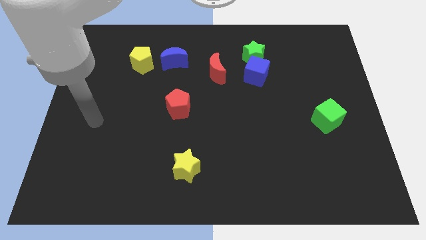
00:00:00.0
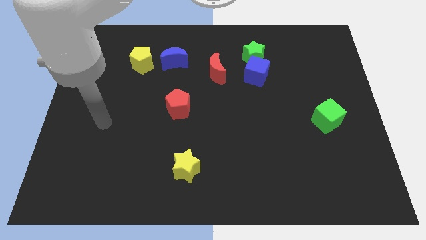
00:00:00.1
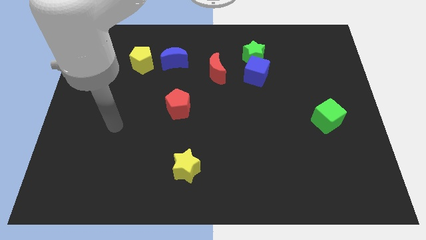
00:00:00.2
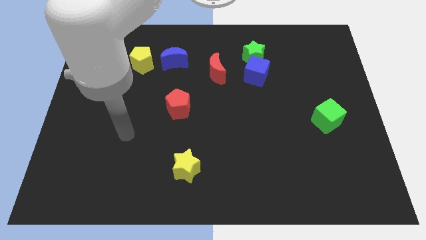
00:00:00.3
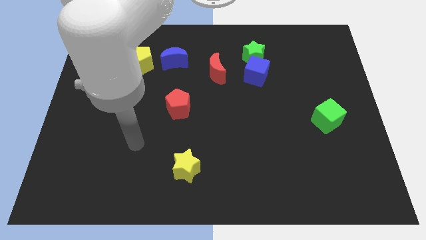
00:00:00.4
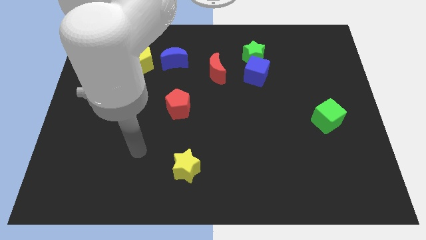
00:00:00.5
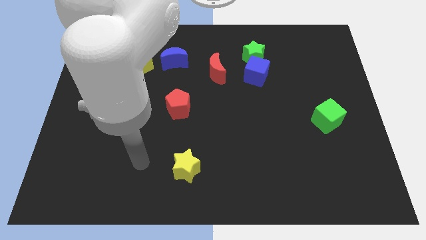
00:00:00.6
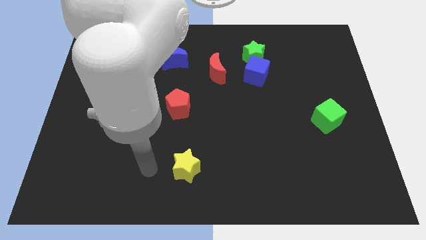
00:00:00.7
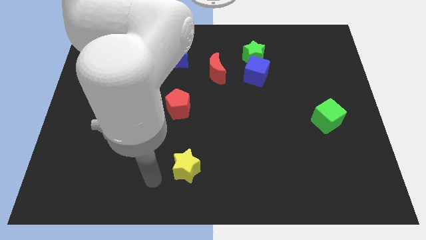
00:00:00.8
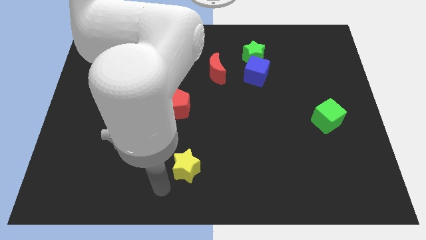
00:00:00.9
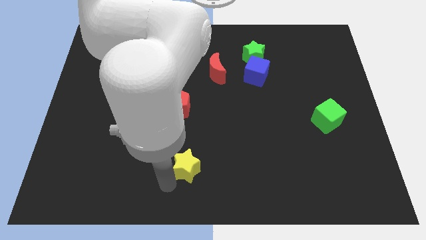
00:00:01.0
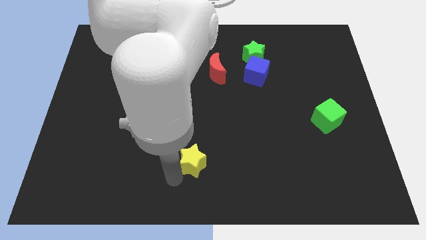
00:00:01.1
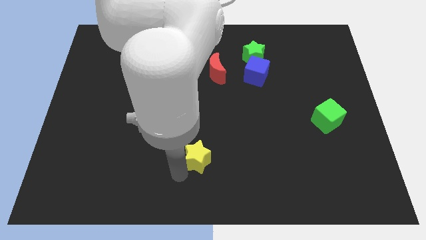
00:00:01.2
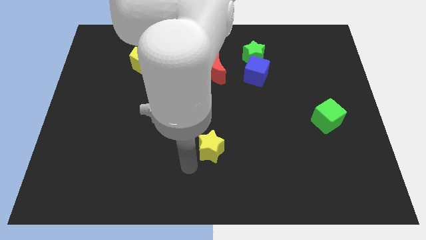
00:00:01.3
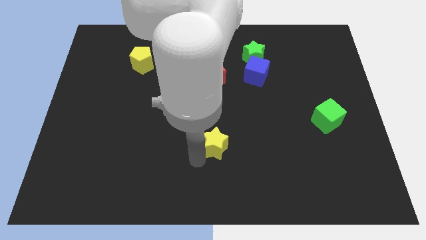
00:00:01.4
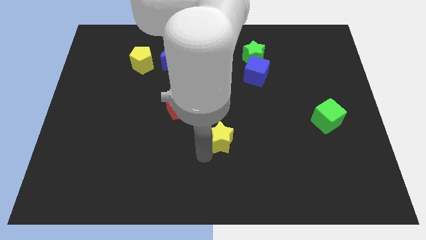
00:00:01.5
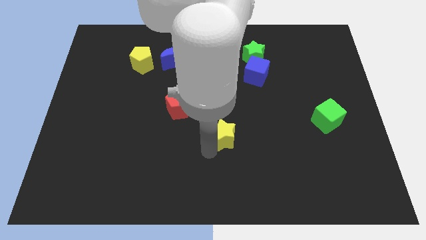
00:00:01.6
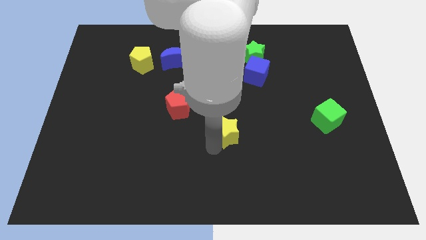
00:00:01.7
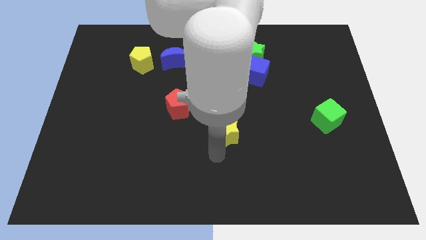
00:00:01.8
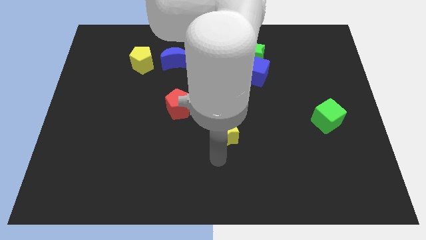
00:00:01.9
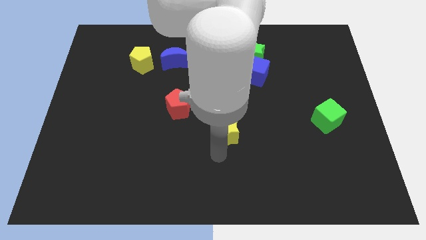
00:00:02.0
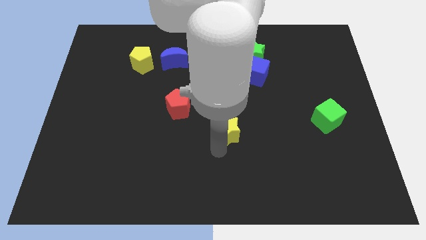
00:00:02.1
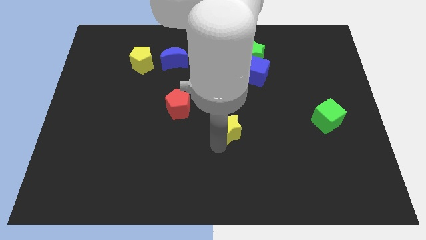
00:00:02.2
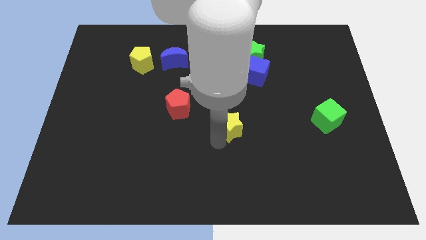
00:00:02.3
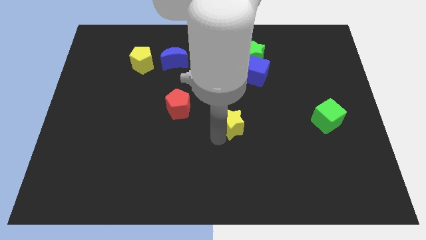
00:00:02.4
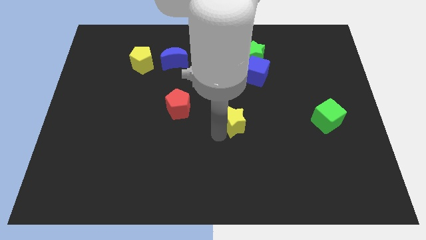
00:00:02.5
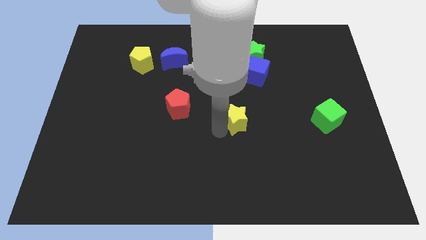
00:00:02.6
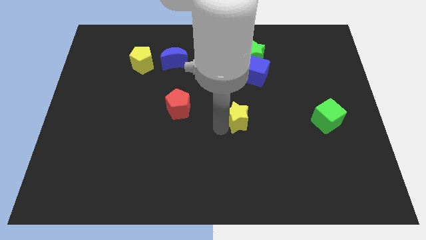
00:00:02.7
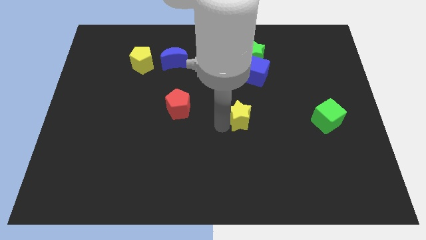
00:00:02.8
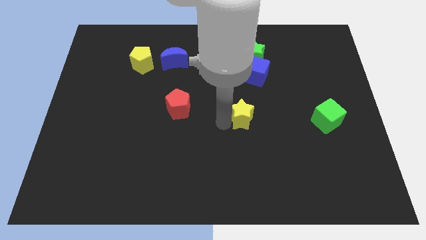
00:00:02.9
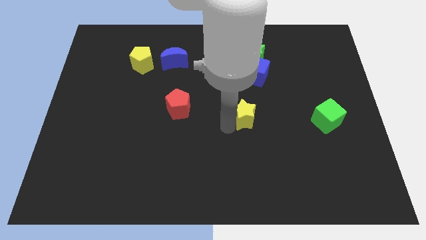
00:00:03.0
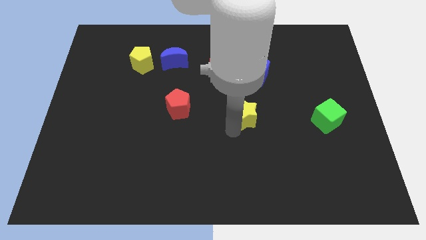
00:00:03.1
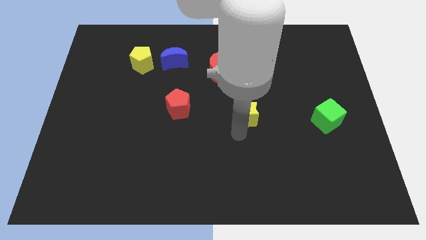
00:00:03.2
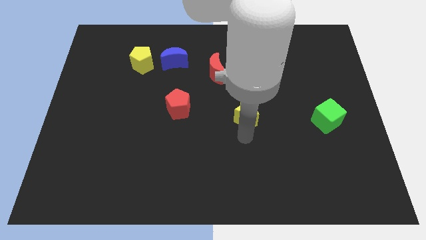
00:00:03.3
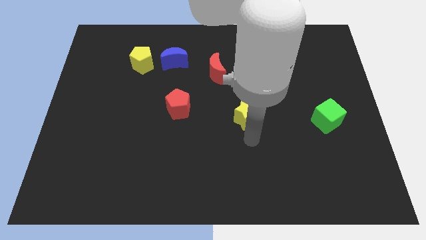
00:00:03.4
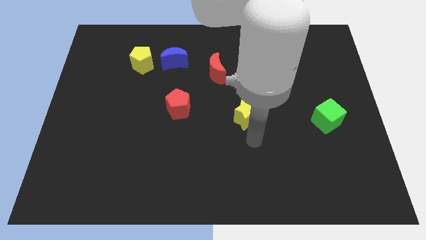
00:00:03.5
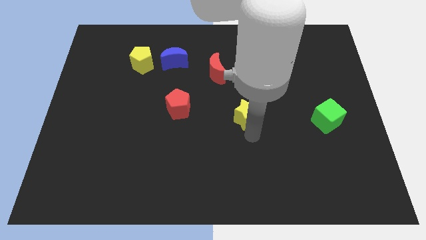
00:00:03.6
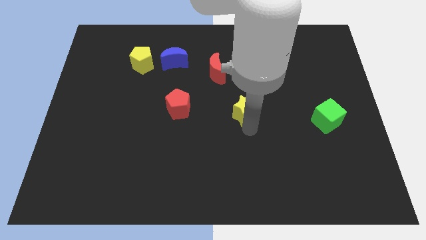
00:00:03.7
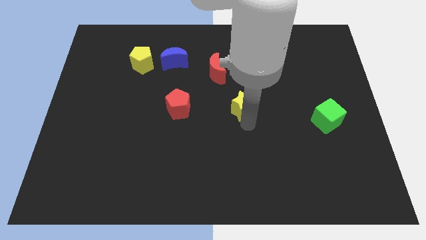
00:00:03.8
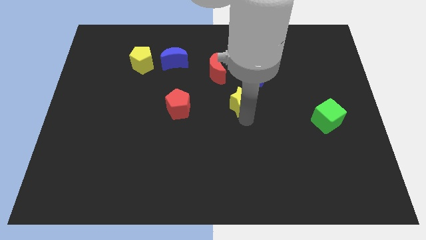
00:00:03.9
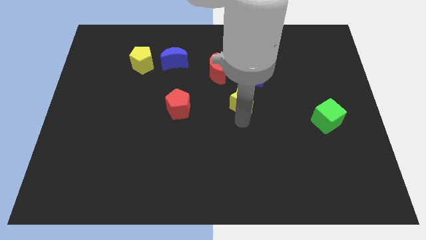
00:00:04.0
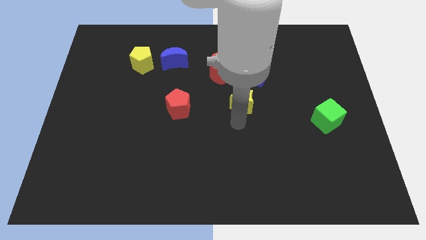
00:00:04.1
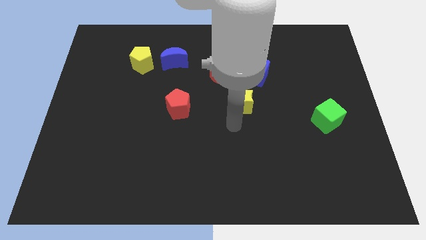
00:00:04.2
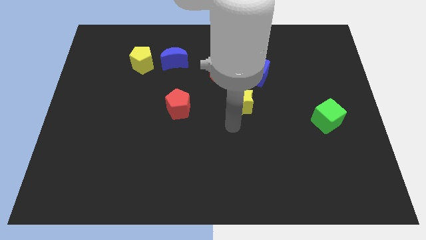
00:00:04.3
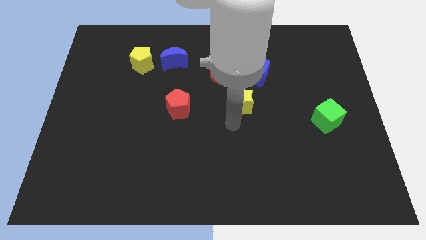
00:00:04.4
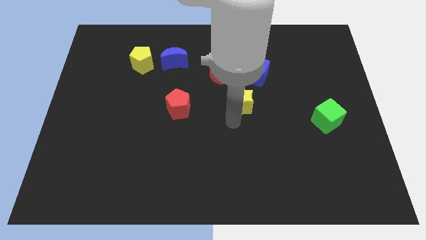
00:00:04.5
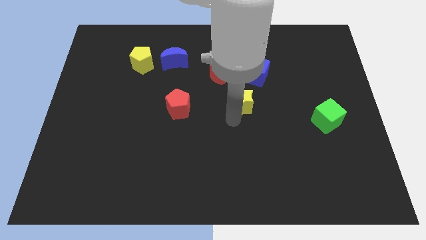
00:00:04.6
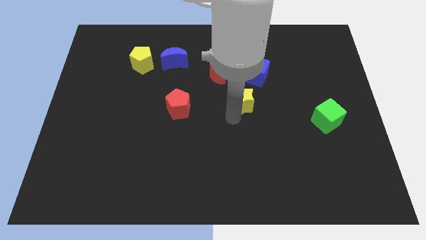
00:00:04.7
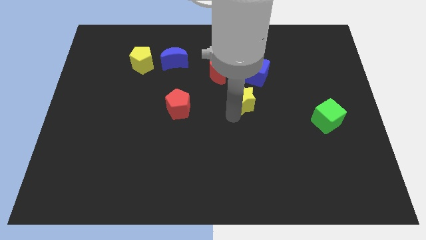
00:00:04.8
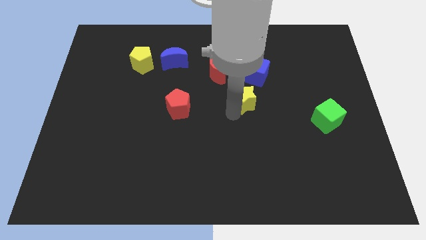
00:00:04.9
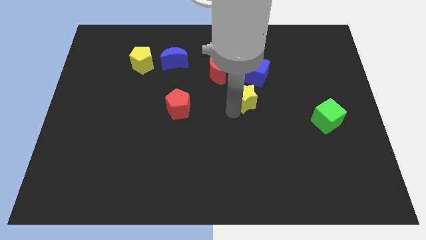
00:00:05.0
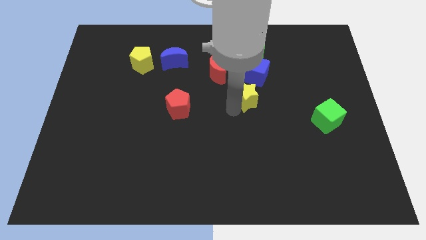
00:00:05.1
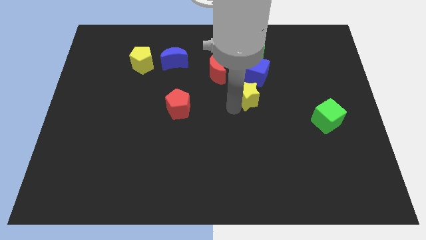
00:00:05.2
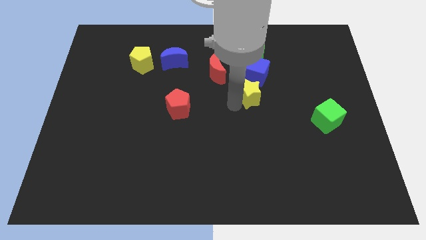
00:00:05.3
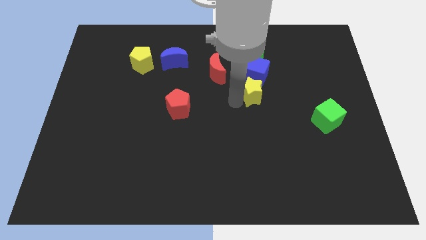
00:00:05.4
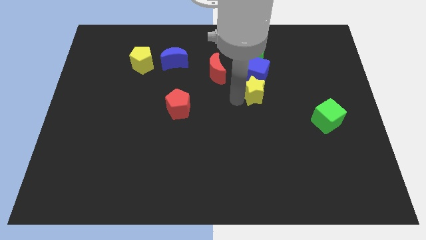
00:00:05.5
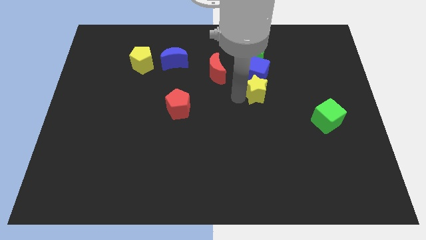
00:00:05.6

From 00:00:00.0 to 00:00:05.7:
move the yellow star to the blue cube

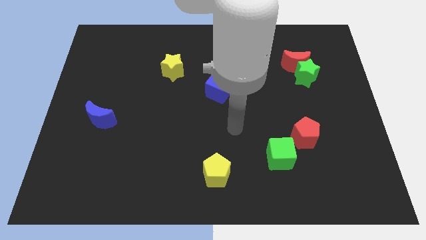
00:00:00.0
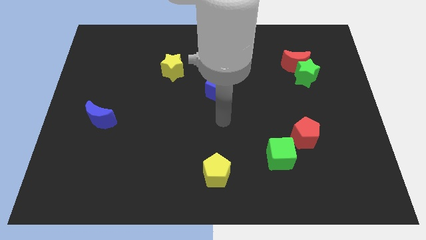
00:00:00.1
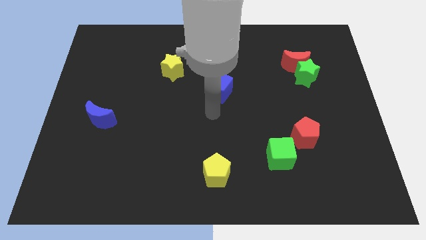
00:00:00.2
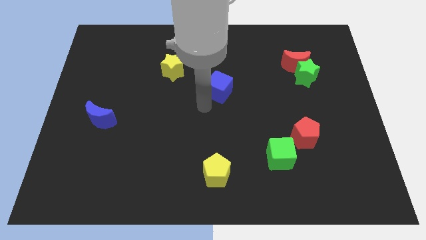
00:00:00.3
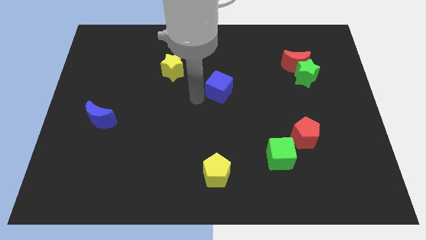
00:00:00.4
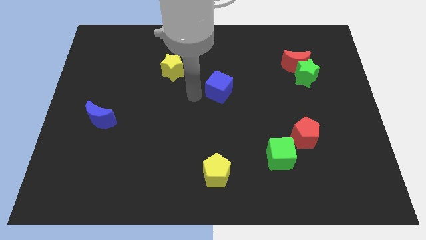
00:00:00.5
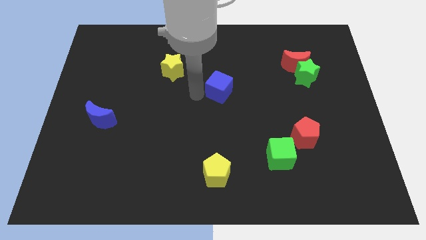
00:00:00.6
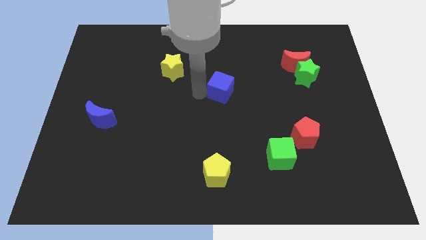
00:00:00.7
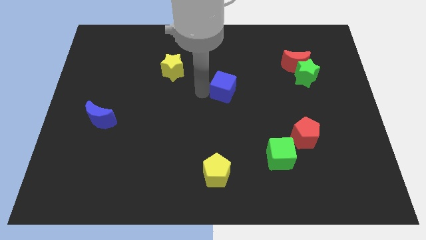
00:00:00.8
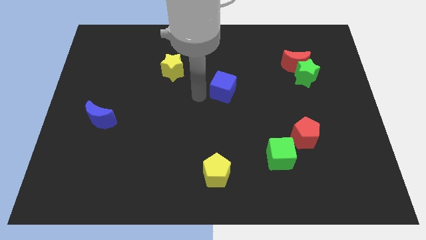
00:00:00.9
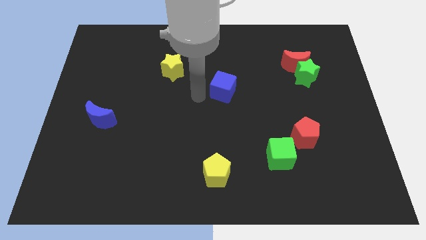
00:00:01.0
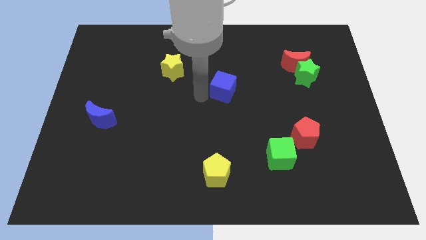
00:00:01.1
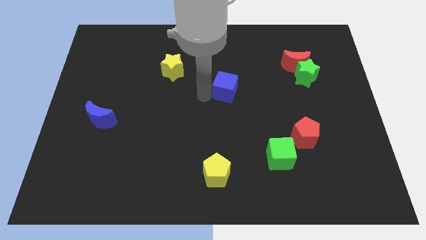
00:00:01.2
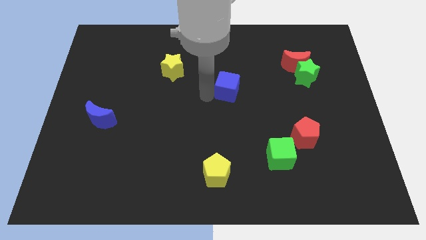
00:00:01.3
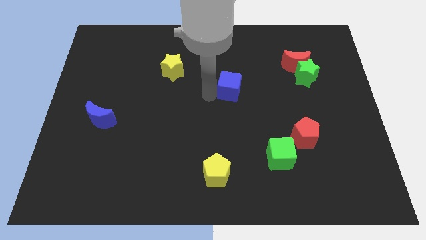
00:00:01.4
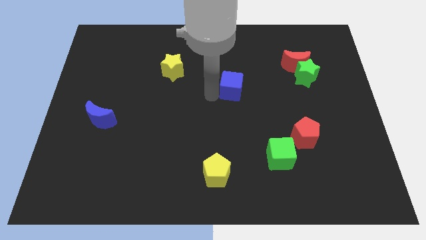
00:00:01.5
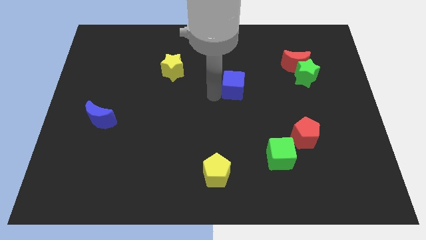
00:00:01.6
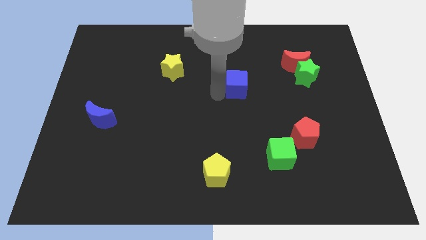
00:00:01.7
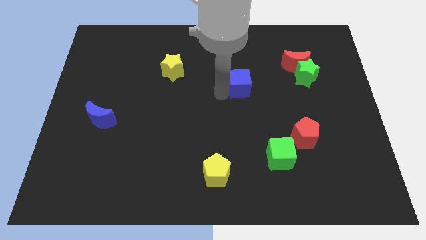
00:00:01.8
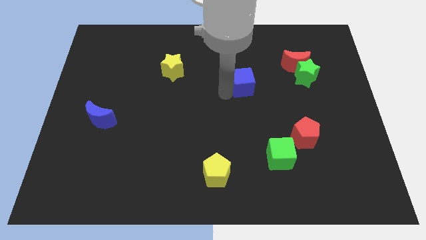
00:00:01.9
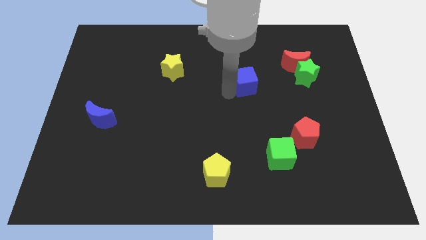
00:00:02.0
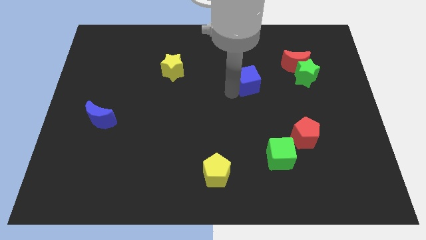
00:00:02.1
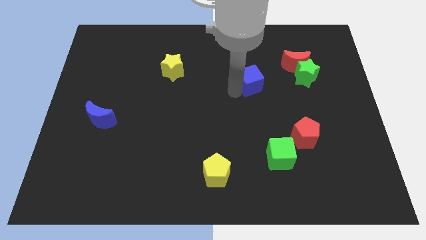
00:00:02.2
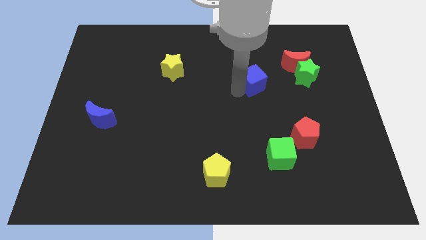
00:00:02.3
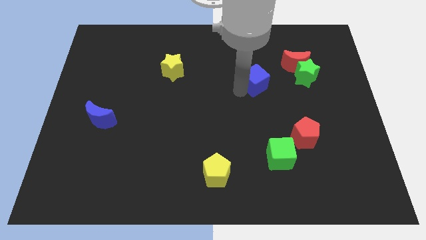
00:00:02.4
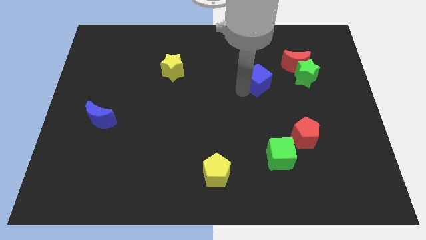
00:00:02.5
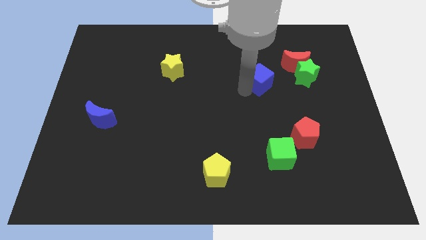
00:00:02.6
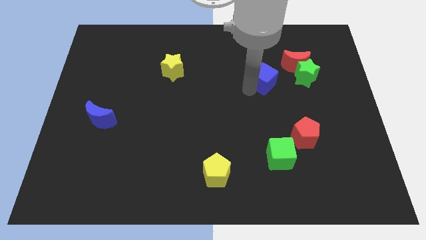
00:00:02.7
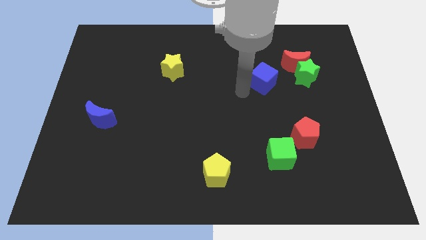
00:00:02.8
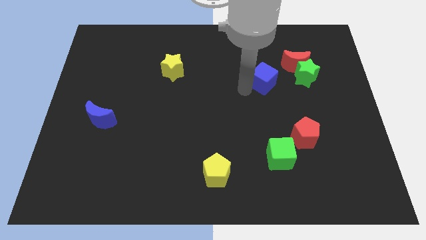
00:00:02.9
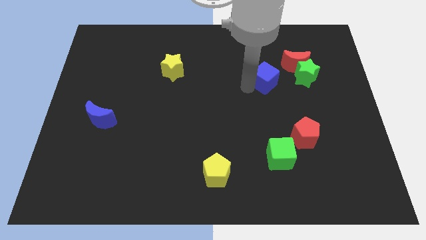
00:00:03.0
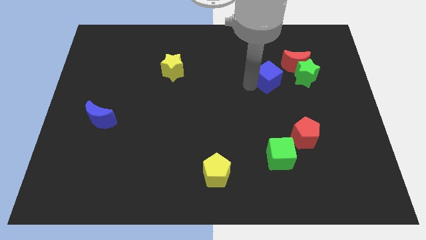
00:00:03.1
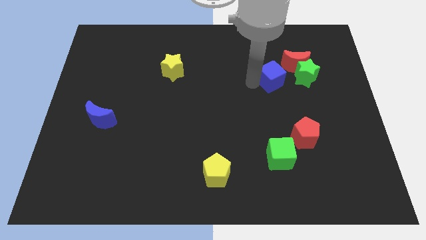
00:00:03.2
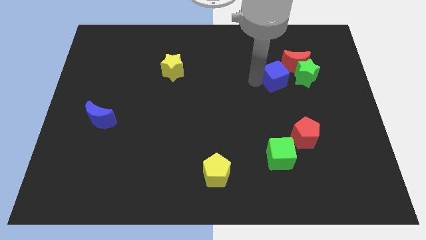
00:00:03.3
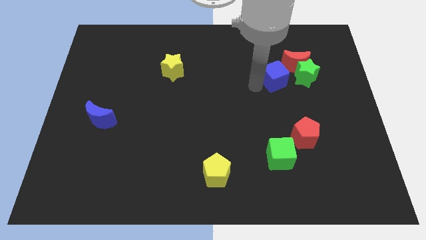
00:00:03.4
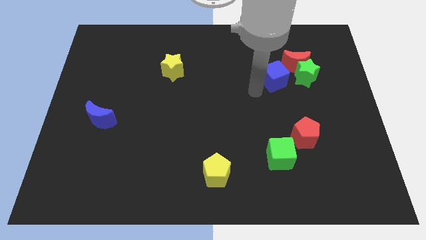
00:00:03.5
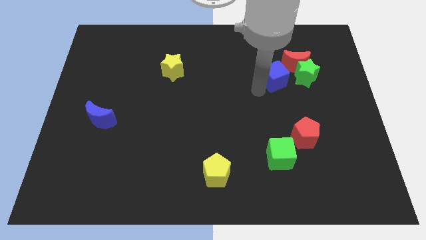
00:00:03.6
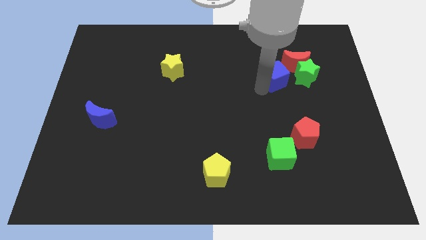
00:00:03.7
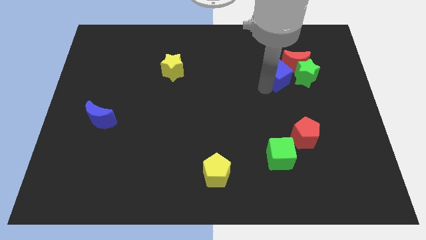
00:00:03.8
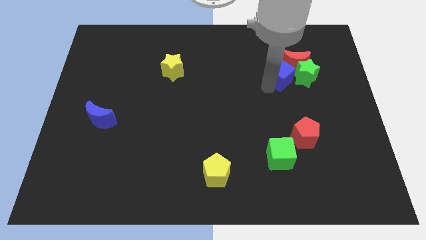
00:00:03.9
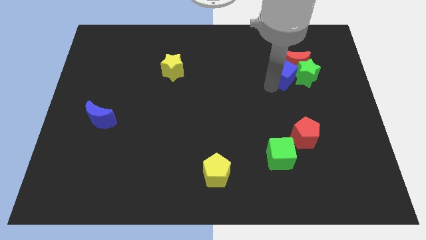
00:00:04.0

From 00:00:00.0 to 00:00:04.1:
slide the blue cube to the red moon
